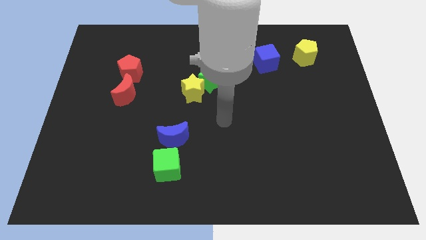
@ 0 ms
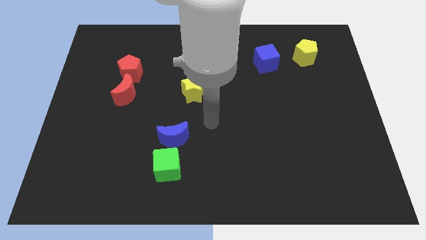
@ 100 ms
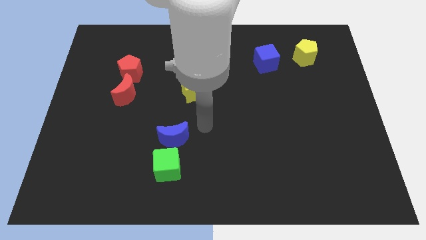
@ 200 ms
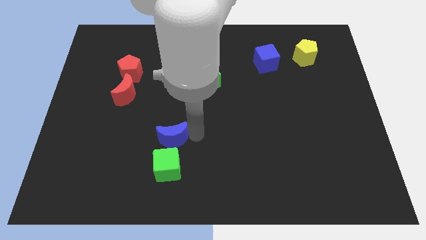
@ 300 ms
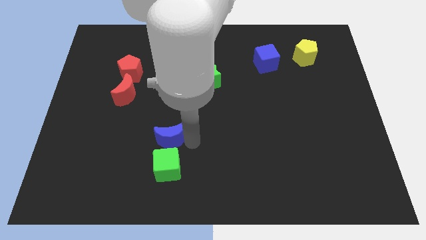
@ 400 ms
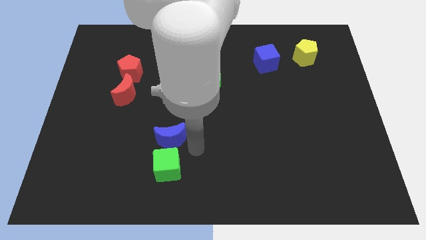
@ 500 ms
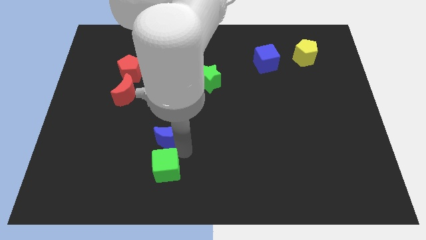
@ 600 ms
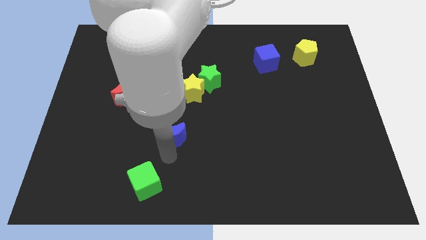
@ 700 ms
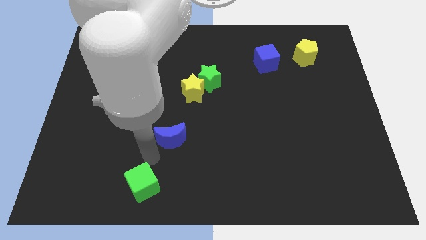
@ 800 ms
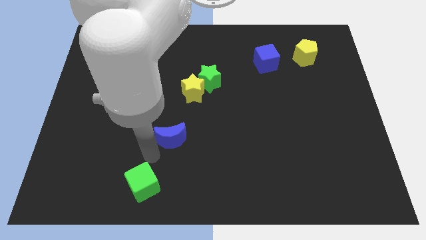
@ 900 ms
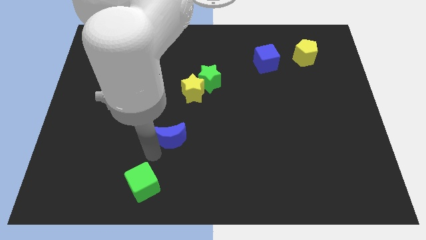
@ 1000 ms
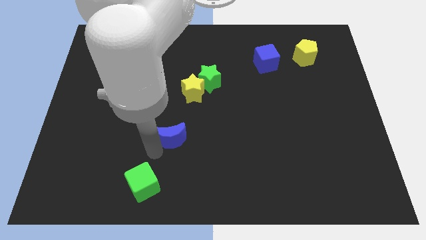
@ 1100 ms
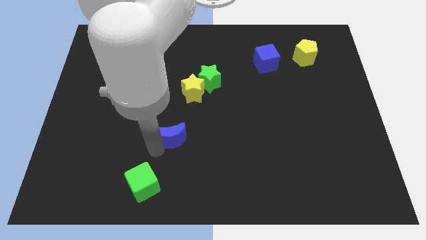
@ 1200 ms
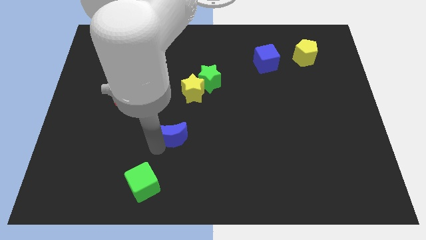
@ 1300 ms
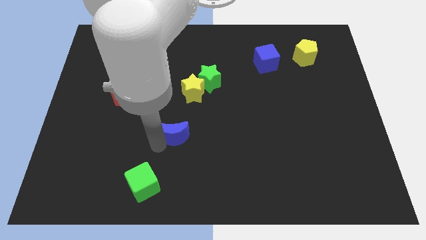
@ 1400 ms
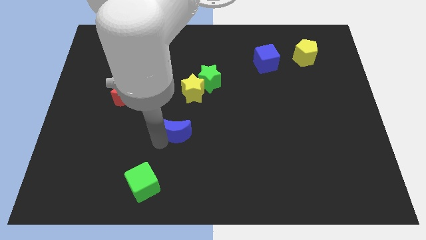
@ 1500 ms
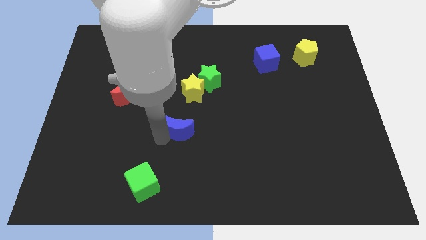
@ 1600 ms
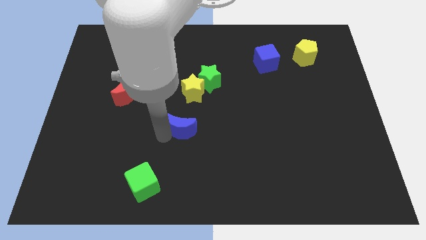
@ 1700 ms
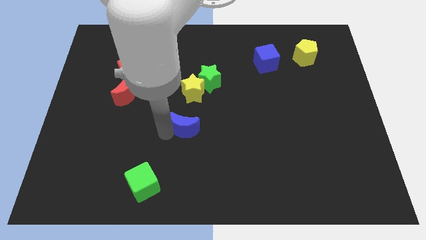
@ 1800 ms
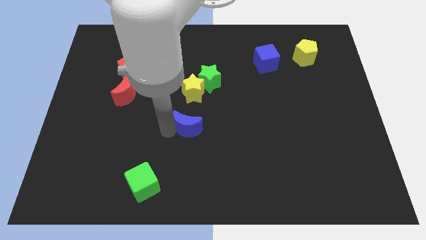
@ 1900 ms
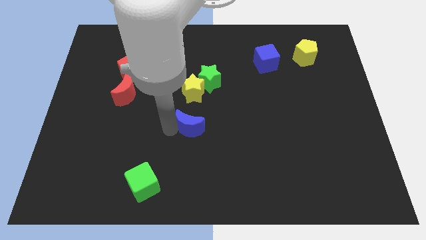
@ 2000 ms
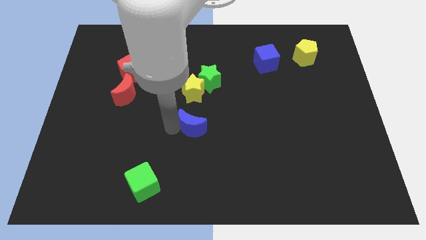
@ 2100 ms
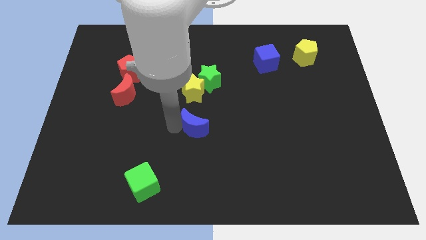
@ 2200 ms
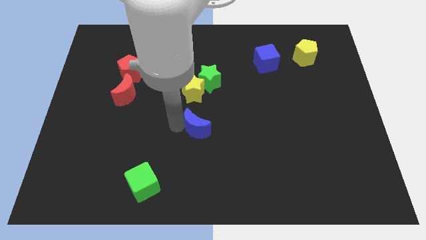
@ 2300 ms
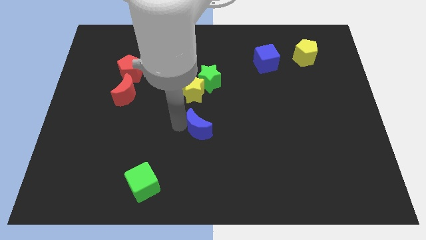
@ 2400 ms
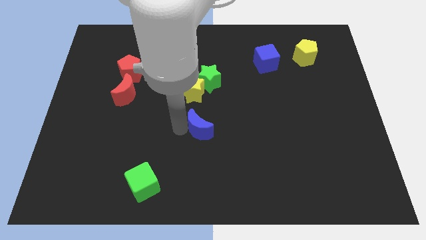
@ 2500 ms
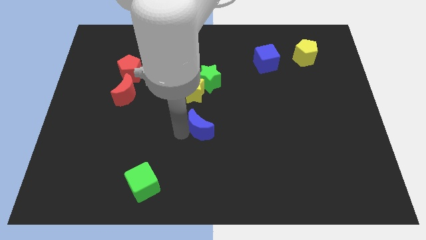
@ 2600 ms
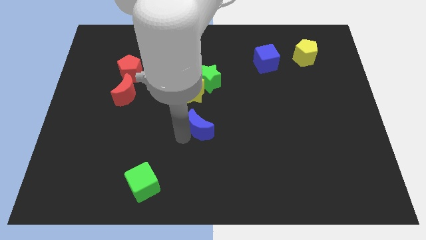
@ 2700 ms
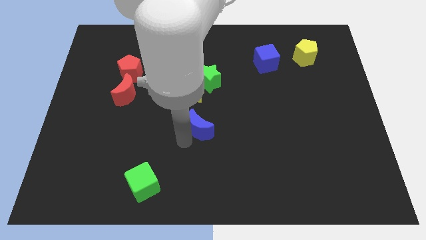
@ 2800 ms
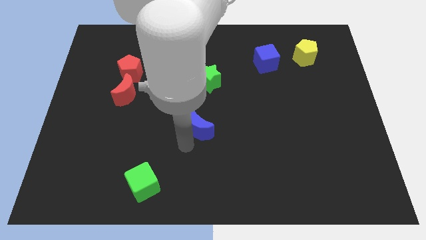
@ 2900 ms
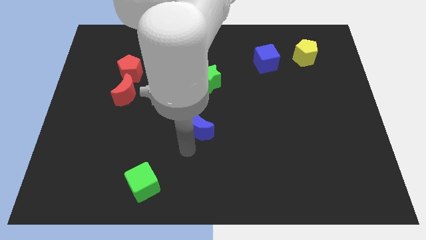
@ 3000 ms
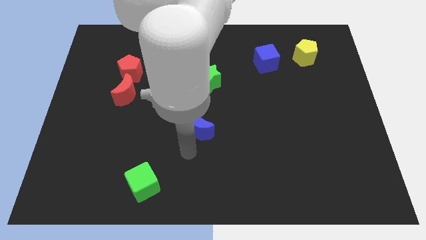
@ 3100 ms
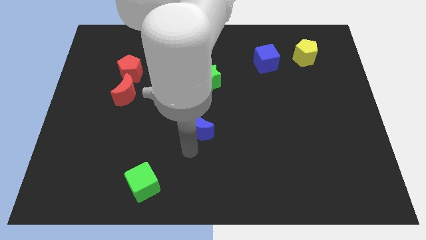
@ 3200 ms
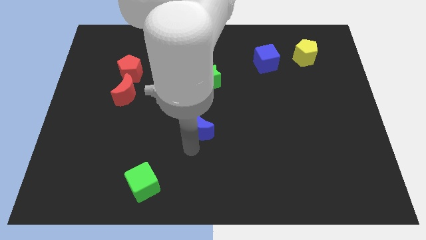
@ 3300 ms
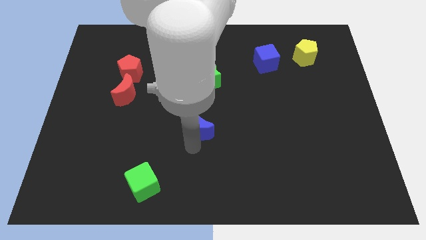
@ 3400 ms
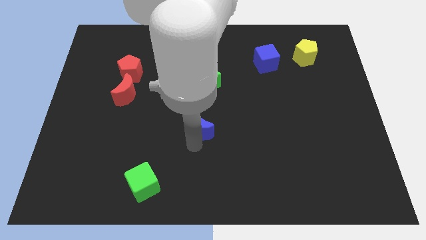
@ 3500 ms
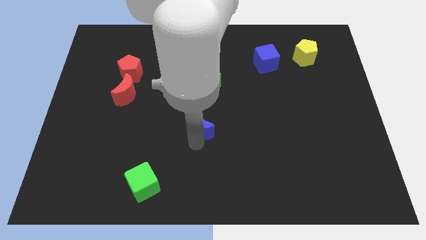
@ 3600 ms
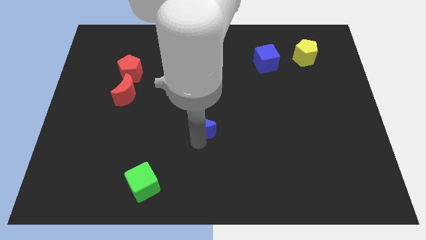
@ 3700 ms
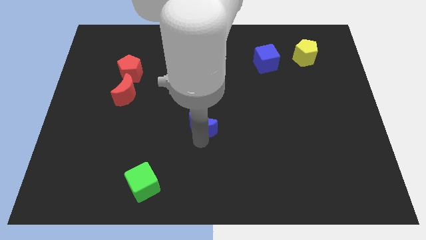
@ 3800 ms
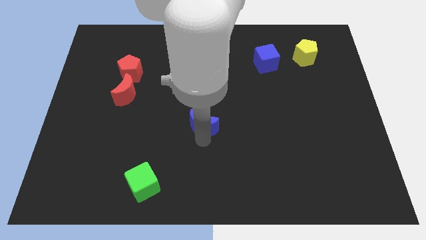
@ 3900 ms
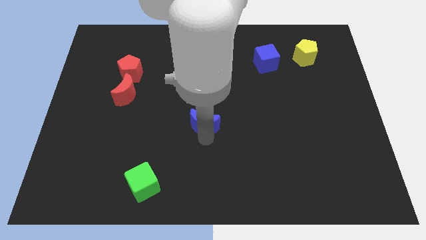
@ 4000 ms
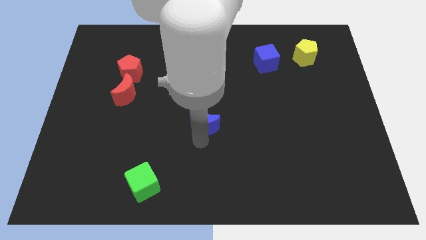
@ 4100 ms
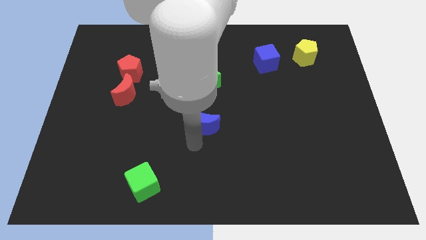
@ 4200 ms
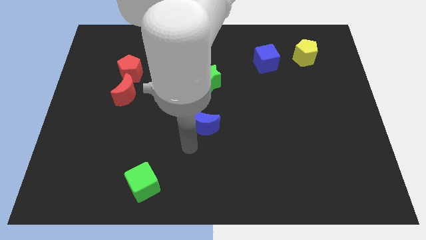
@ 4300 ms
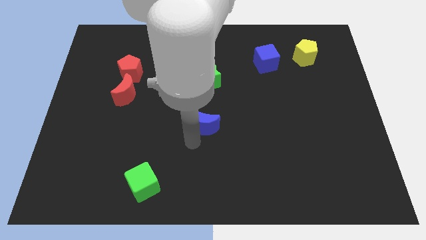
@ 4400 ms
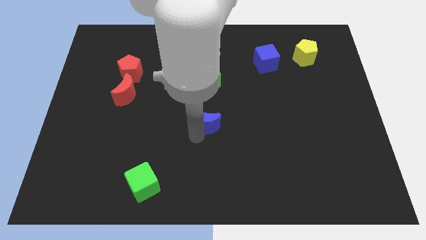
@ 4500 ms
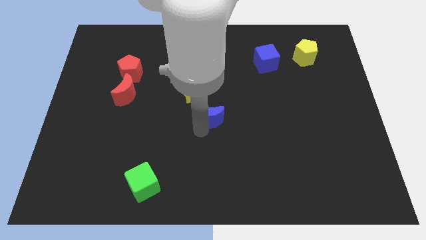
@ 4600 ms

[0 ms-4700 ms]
move the blue moon to the bottom right of the yellow star

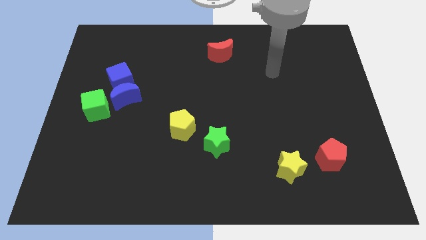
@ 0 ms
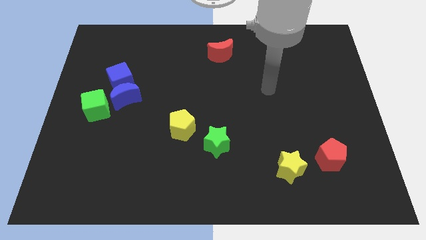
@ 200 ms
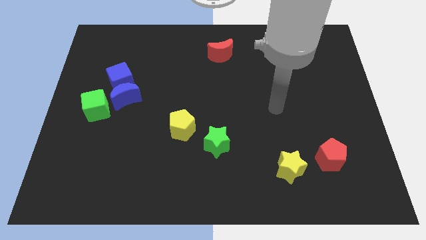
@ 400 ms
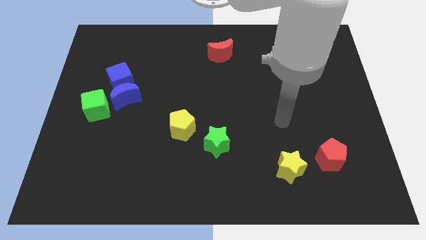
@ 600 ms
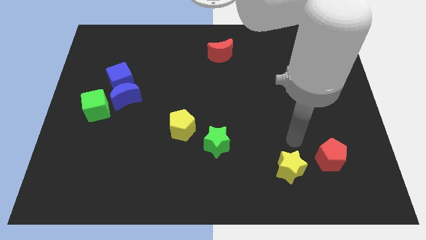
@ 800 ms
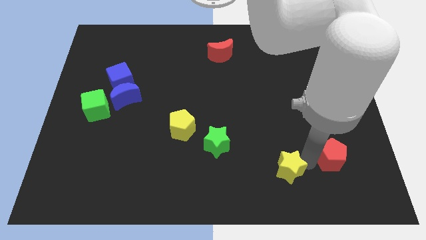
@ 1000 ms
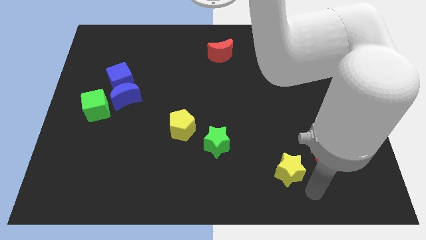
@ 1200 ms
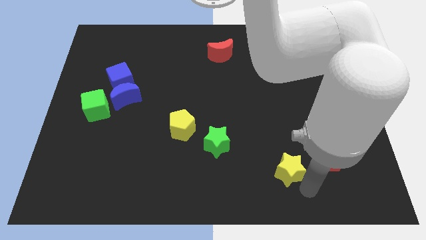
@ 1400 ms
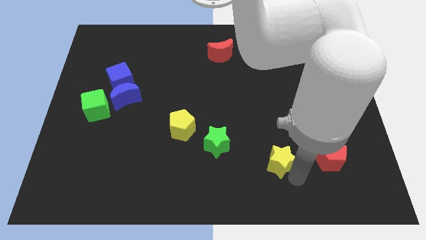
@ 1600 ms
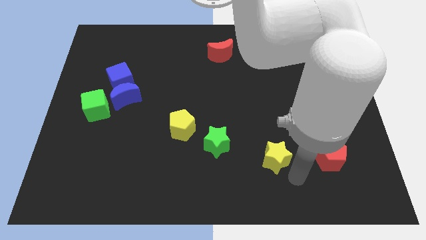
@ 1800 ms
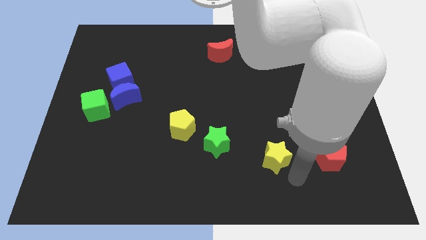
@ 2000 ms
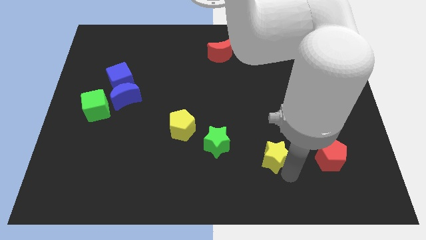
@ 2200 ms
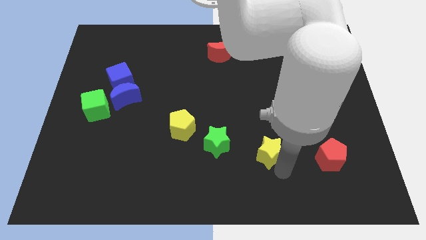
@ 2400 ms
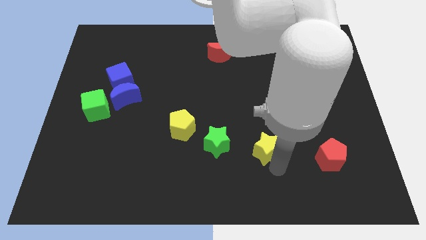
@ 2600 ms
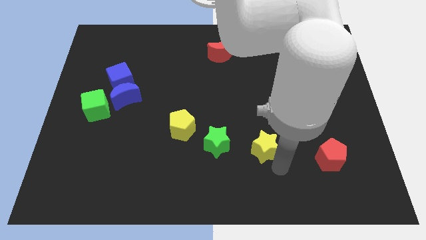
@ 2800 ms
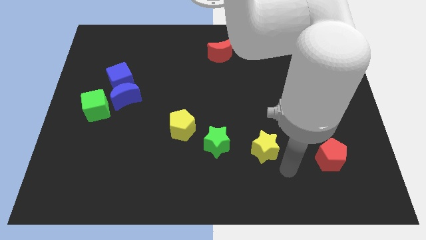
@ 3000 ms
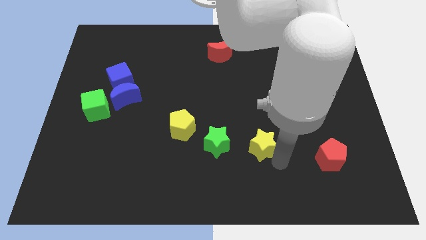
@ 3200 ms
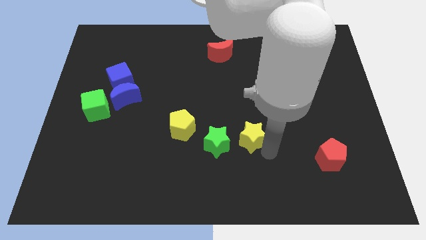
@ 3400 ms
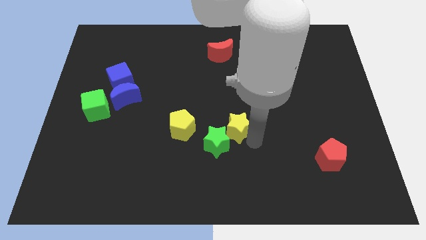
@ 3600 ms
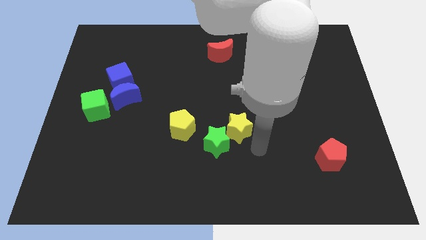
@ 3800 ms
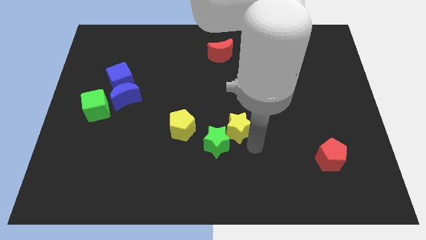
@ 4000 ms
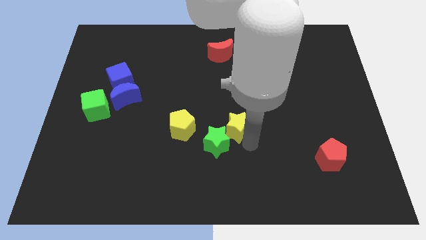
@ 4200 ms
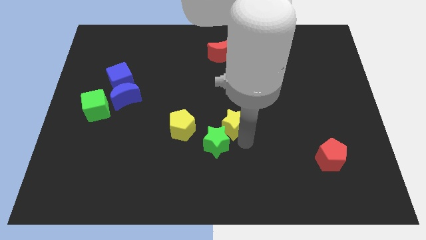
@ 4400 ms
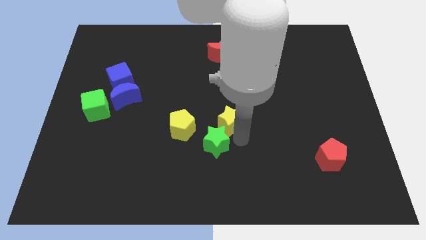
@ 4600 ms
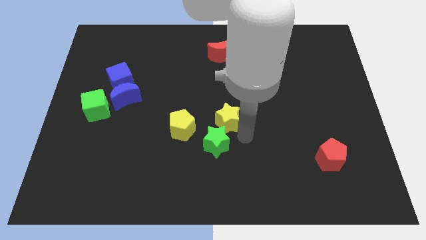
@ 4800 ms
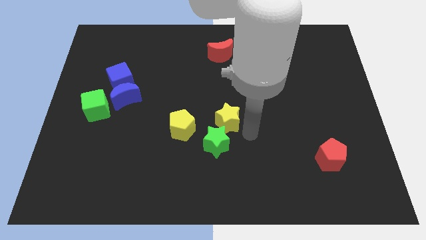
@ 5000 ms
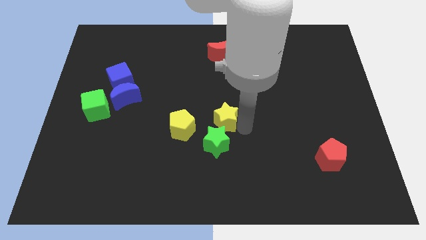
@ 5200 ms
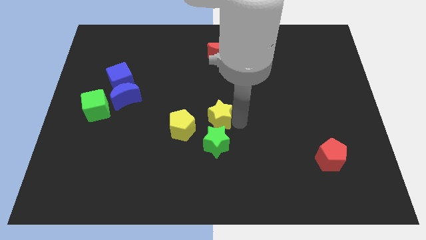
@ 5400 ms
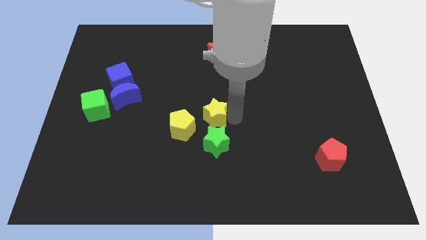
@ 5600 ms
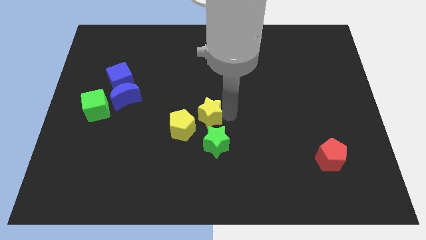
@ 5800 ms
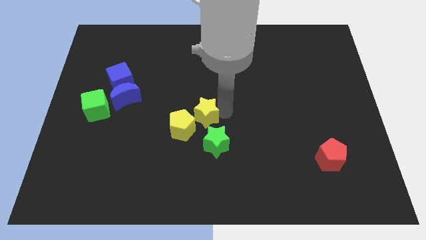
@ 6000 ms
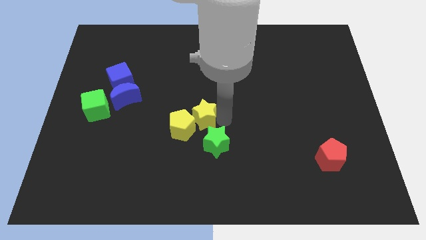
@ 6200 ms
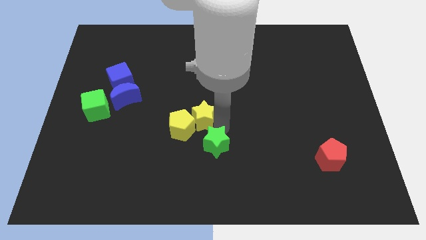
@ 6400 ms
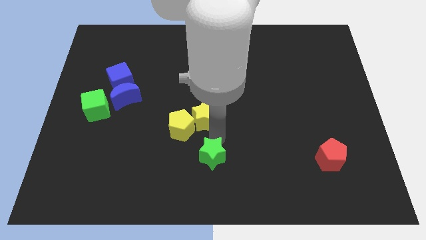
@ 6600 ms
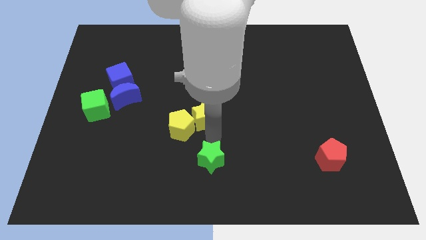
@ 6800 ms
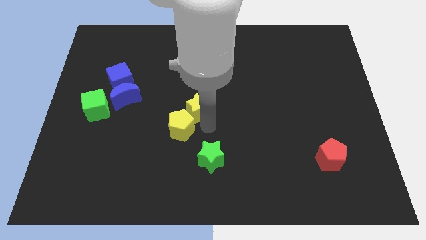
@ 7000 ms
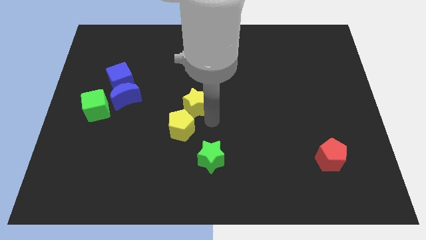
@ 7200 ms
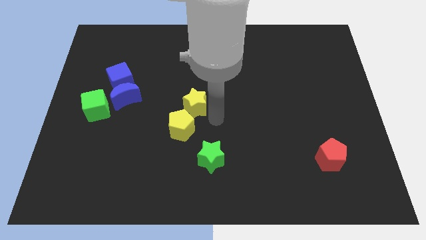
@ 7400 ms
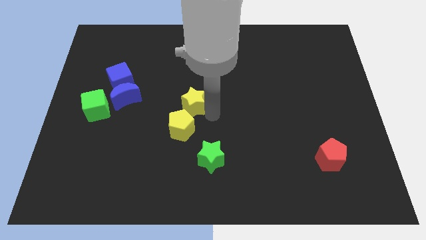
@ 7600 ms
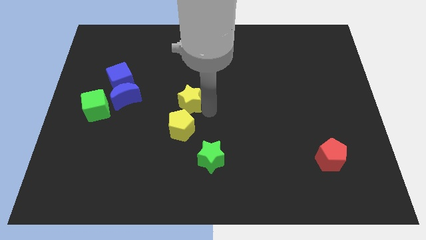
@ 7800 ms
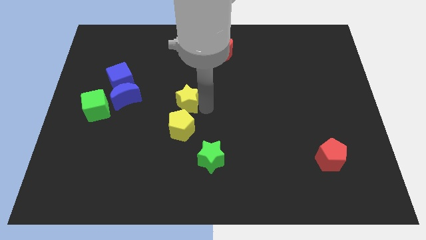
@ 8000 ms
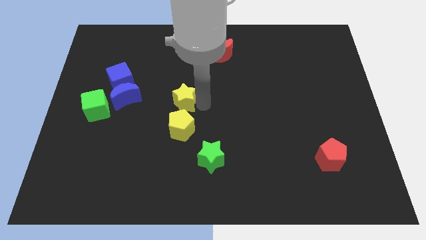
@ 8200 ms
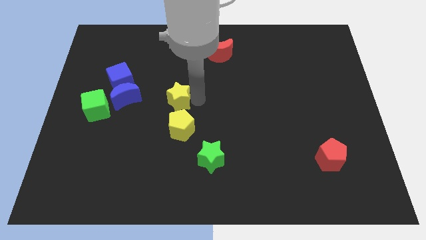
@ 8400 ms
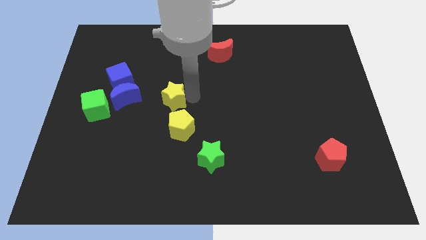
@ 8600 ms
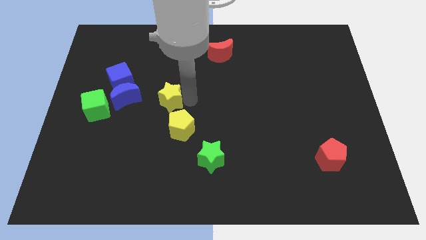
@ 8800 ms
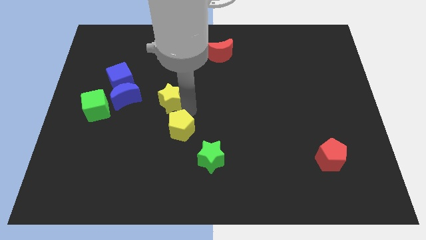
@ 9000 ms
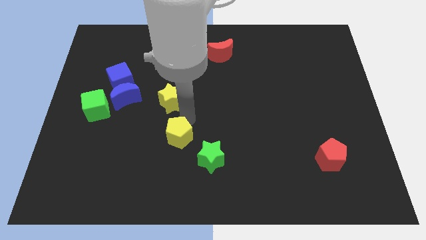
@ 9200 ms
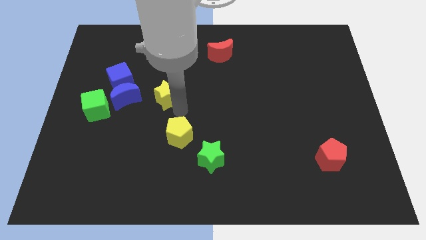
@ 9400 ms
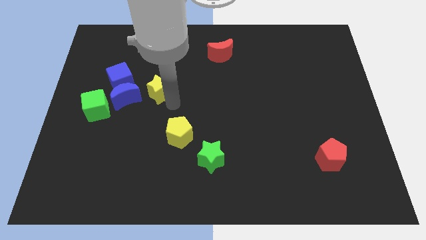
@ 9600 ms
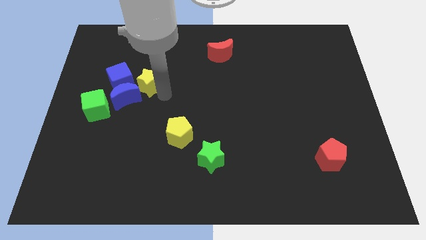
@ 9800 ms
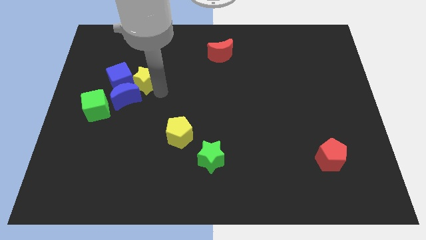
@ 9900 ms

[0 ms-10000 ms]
move the yellow star to the top side of the blue moon
